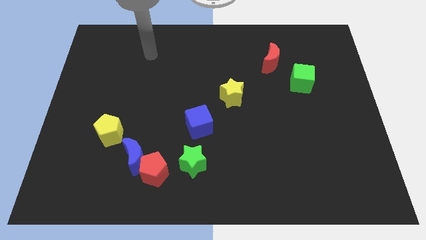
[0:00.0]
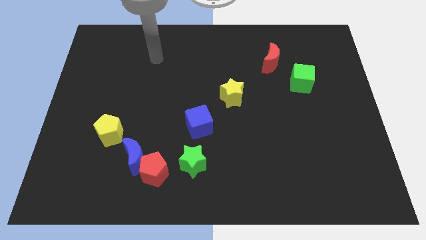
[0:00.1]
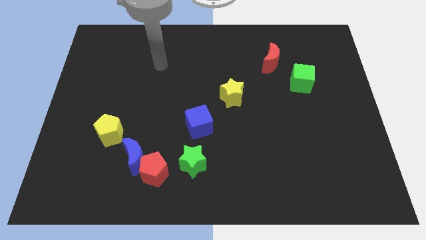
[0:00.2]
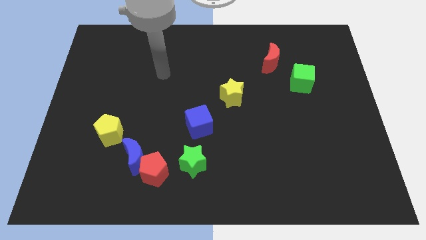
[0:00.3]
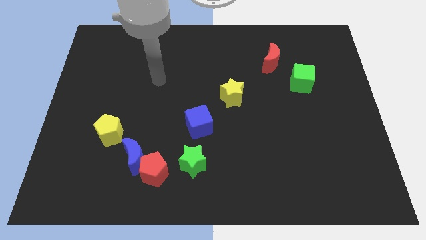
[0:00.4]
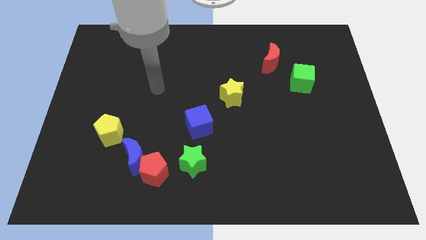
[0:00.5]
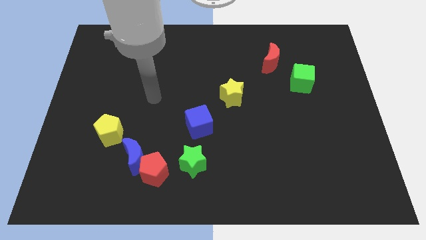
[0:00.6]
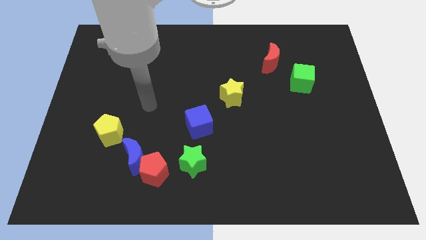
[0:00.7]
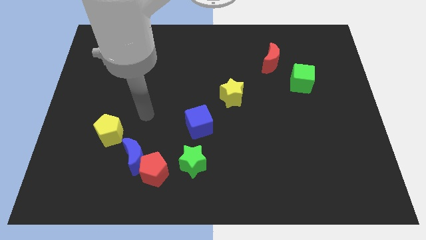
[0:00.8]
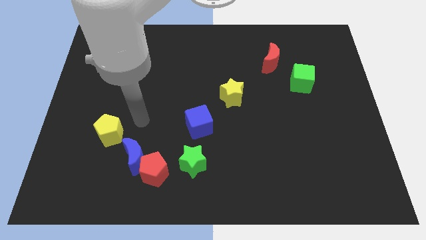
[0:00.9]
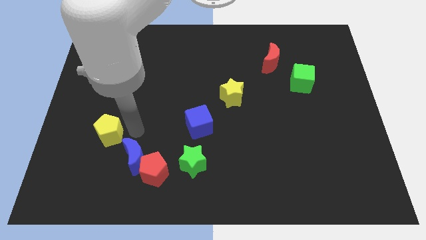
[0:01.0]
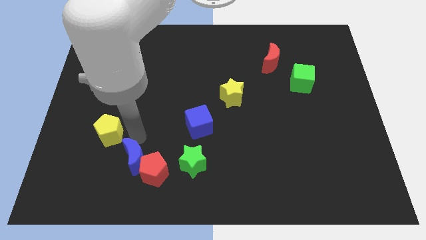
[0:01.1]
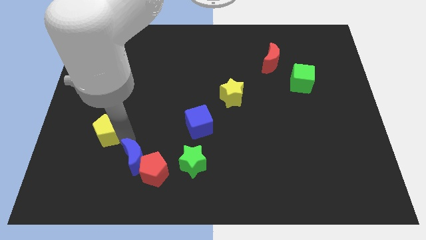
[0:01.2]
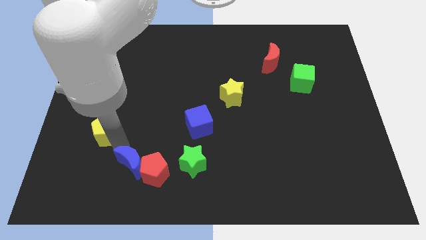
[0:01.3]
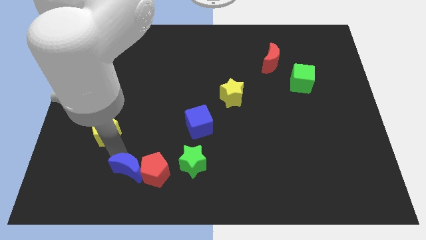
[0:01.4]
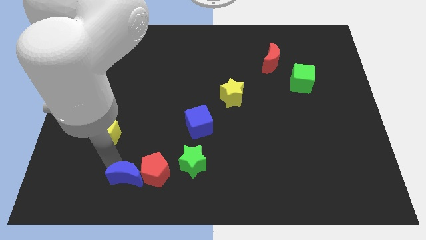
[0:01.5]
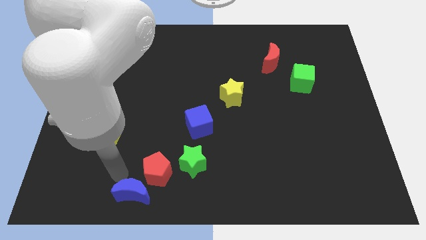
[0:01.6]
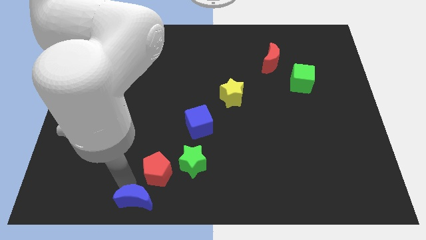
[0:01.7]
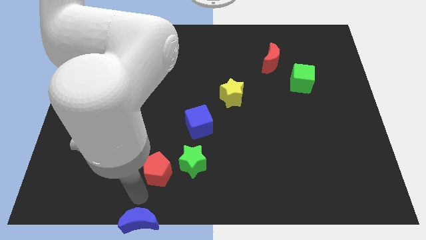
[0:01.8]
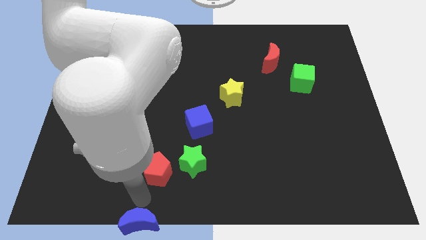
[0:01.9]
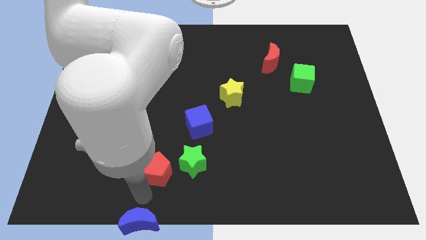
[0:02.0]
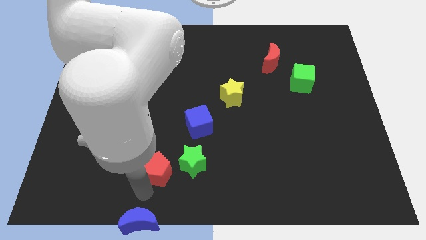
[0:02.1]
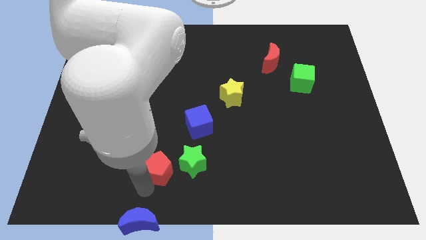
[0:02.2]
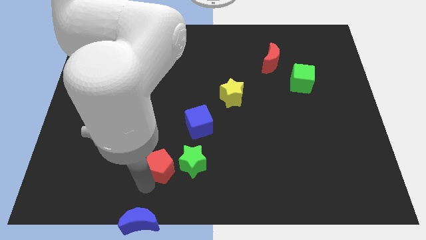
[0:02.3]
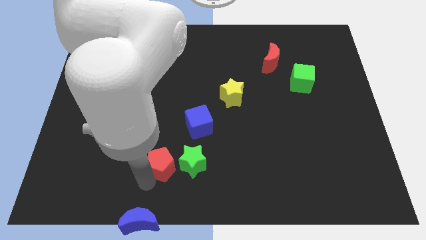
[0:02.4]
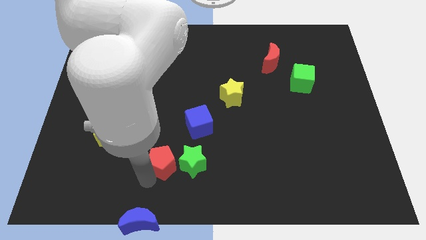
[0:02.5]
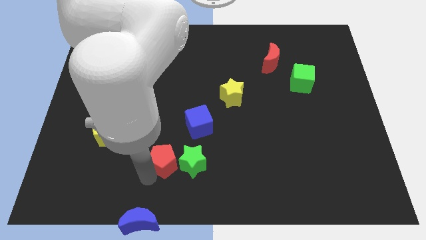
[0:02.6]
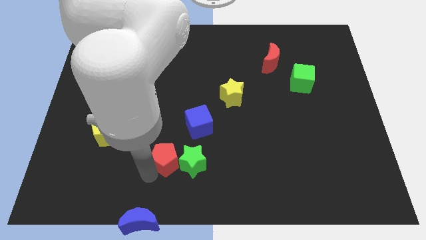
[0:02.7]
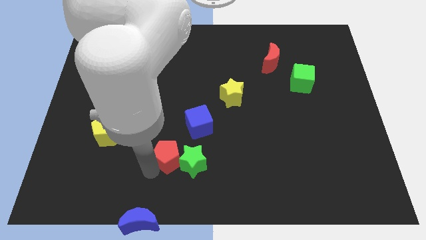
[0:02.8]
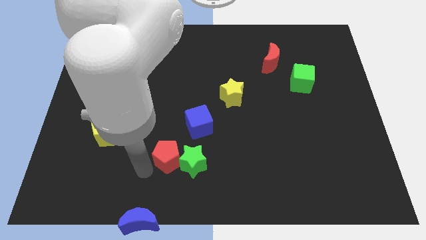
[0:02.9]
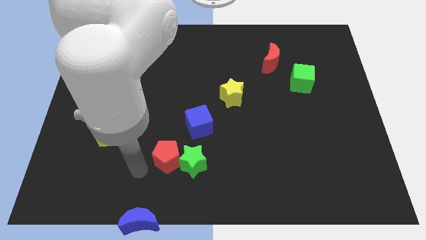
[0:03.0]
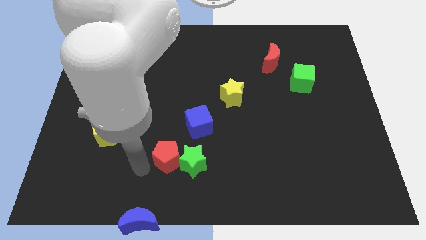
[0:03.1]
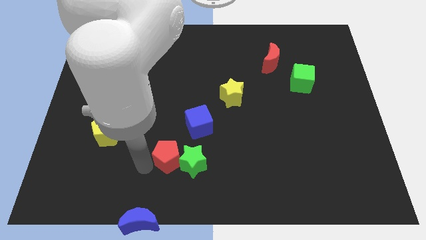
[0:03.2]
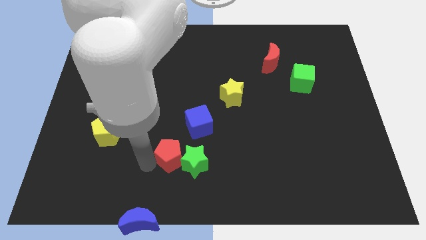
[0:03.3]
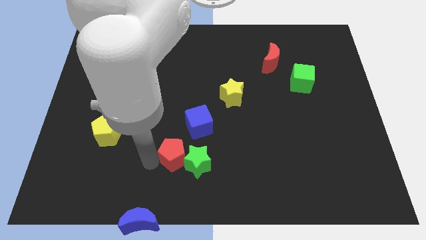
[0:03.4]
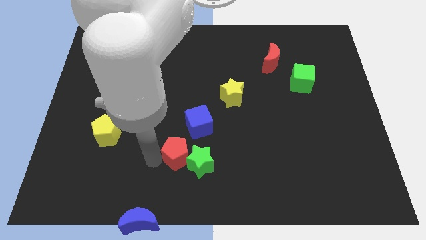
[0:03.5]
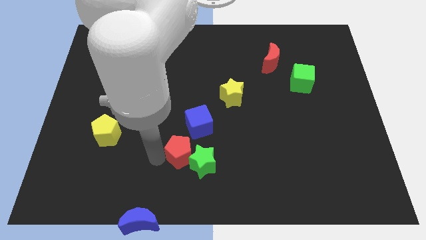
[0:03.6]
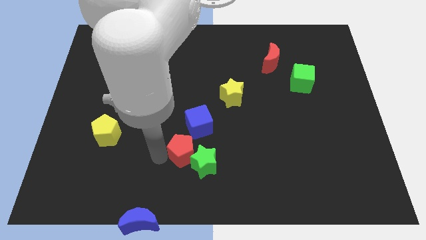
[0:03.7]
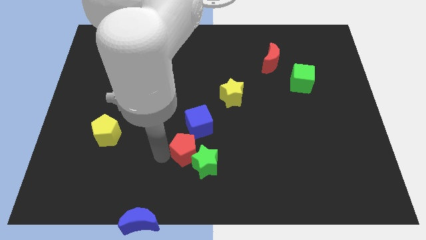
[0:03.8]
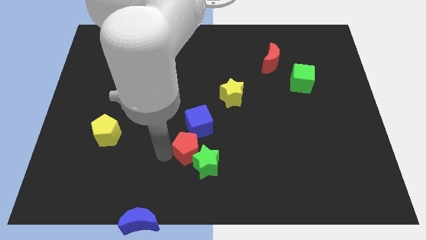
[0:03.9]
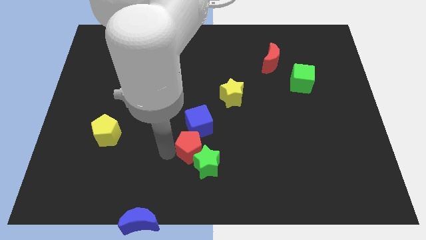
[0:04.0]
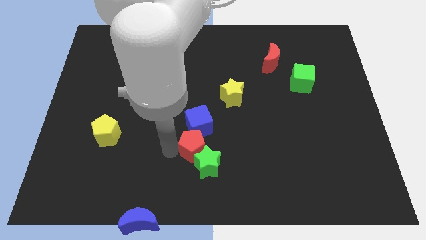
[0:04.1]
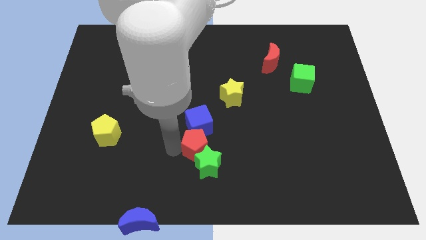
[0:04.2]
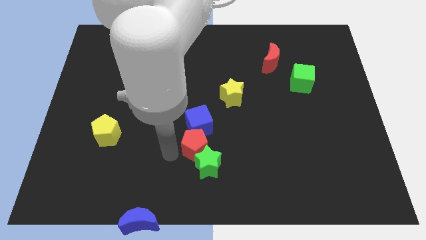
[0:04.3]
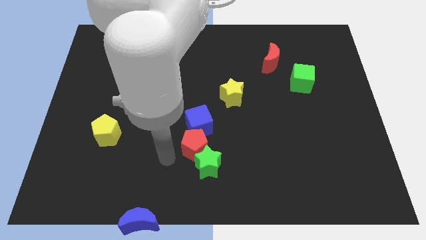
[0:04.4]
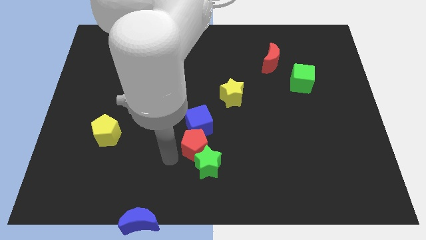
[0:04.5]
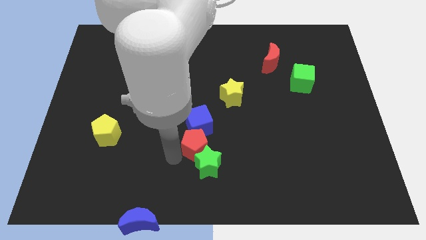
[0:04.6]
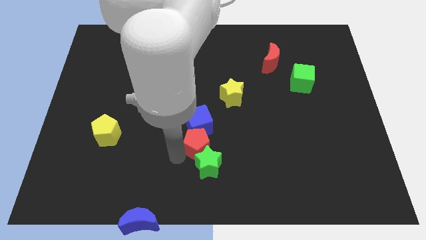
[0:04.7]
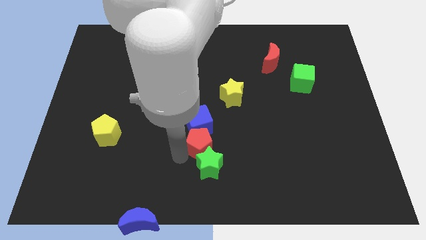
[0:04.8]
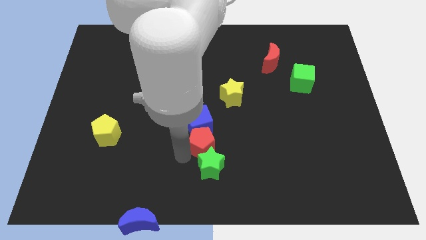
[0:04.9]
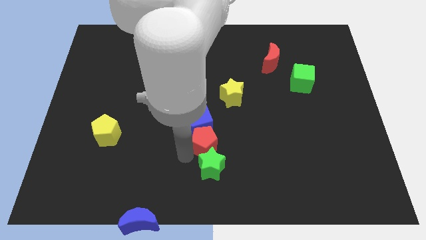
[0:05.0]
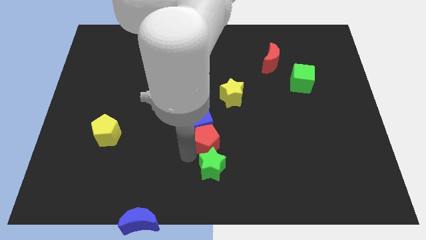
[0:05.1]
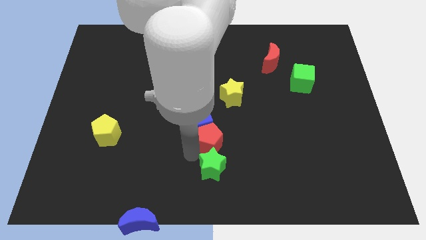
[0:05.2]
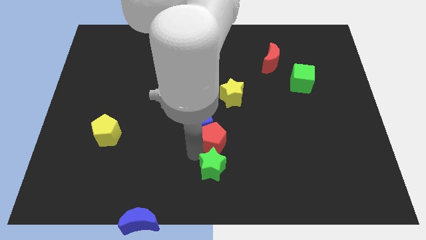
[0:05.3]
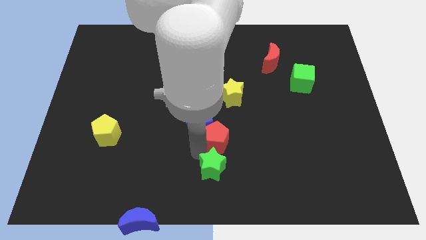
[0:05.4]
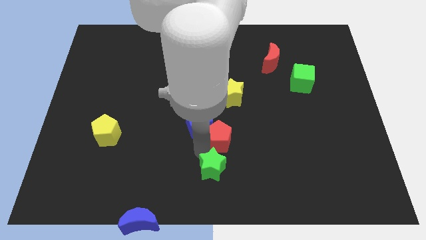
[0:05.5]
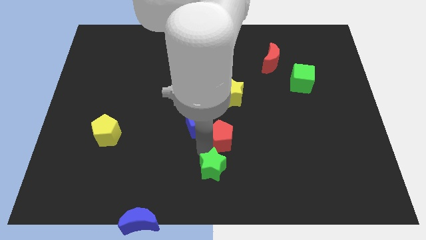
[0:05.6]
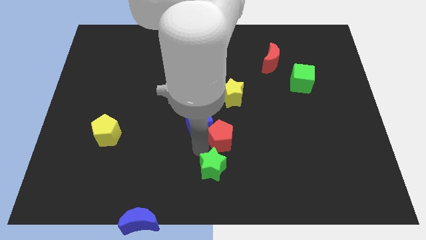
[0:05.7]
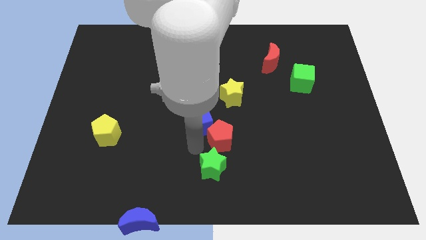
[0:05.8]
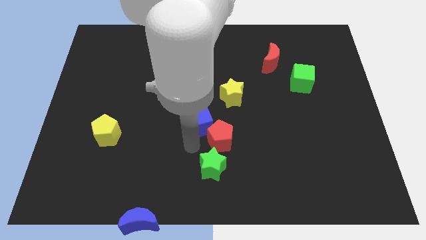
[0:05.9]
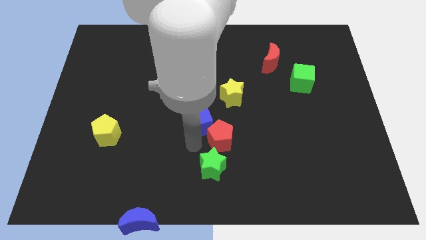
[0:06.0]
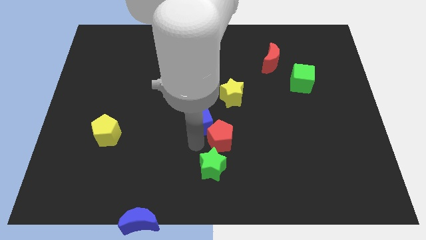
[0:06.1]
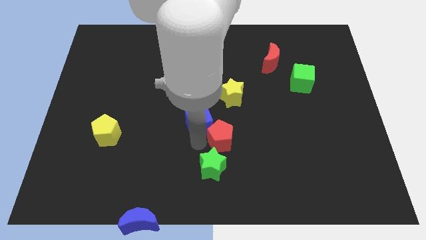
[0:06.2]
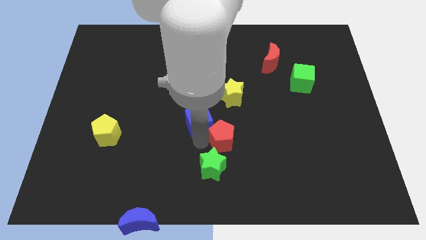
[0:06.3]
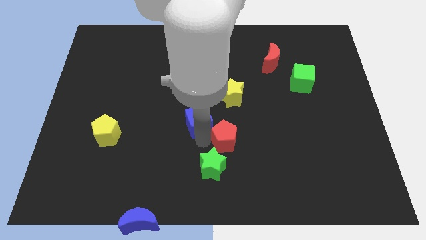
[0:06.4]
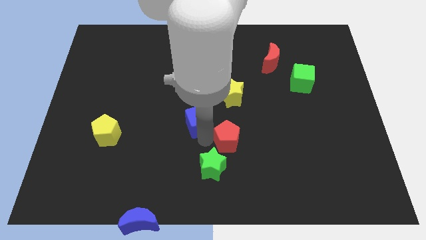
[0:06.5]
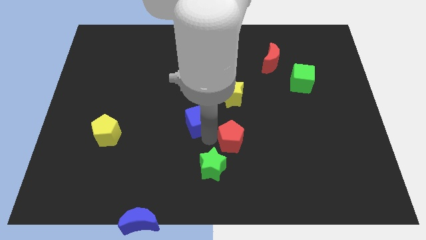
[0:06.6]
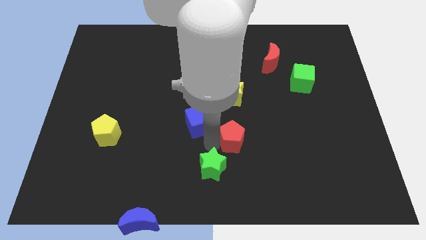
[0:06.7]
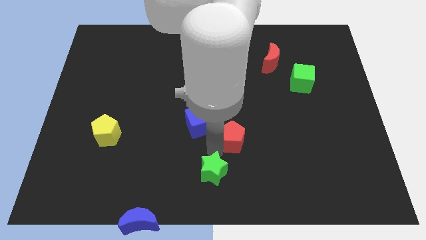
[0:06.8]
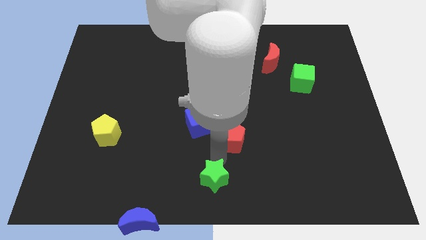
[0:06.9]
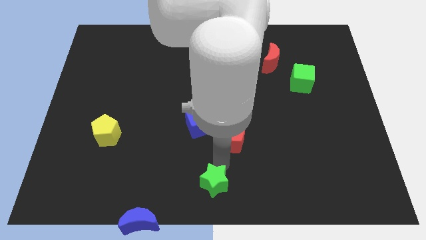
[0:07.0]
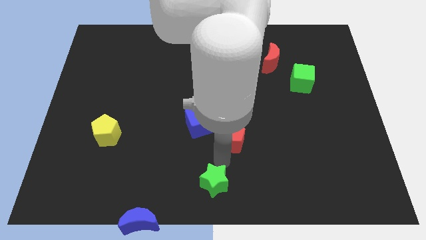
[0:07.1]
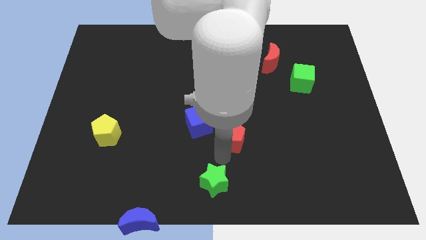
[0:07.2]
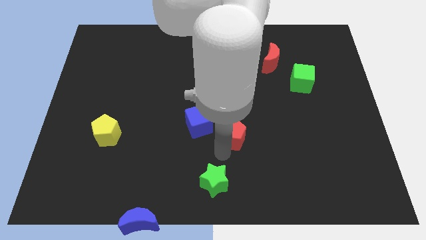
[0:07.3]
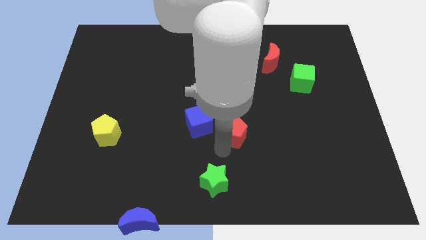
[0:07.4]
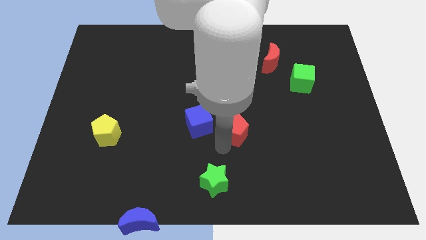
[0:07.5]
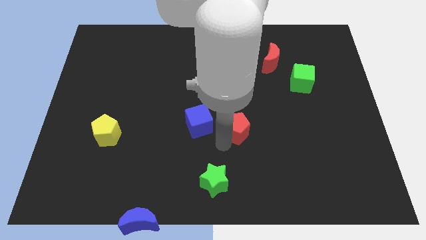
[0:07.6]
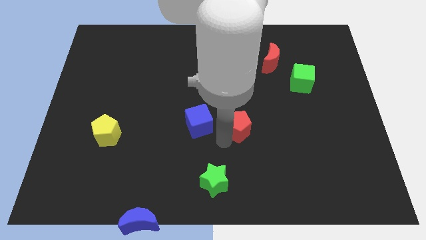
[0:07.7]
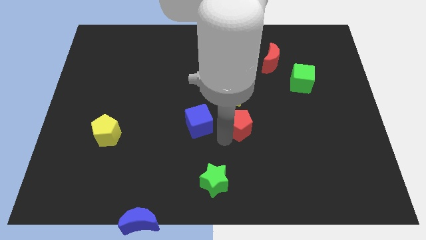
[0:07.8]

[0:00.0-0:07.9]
move the red pentagon upwards and to the right

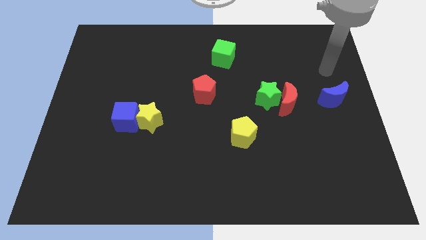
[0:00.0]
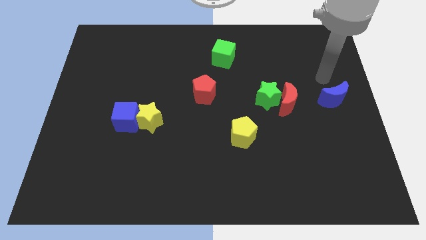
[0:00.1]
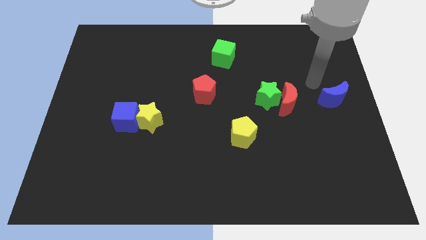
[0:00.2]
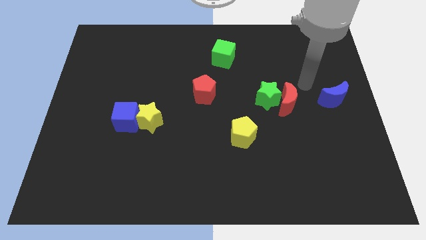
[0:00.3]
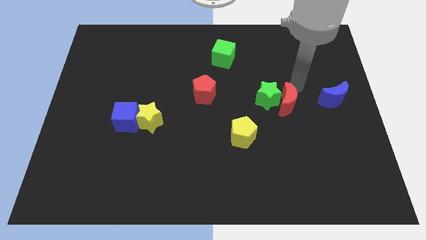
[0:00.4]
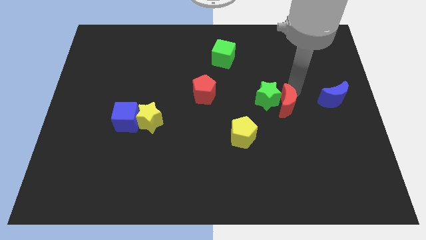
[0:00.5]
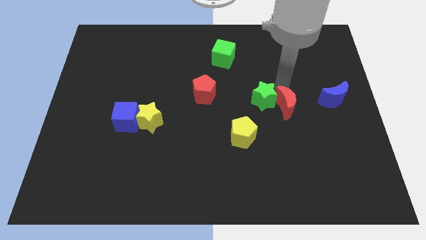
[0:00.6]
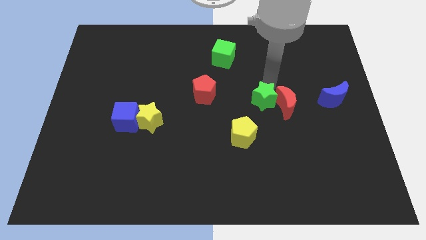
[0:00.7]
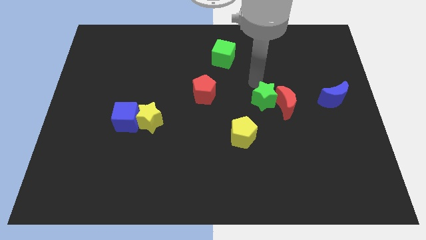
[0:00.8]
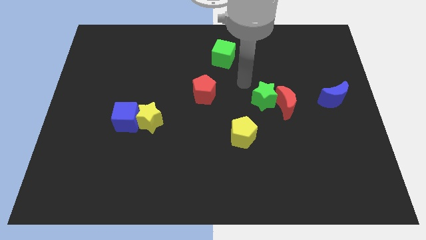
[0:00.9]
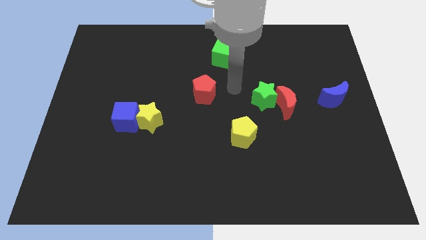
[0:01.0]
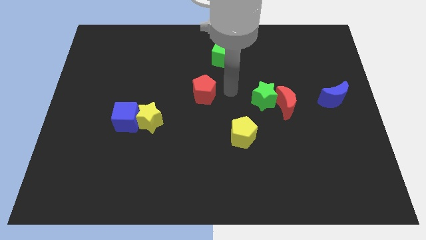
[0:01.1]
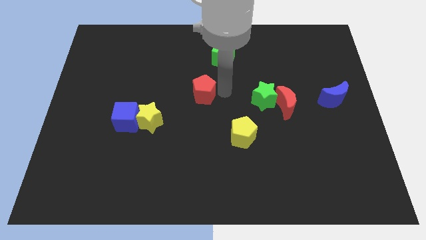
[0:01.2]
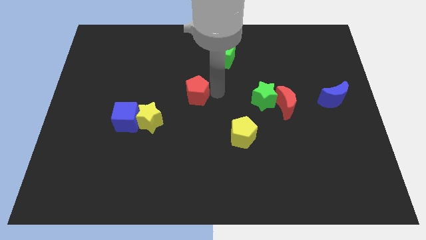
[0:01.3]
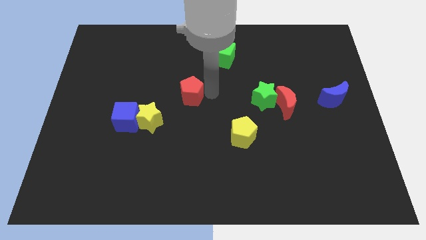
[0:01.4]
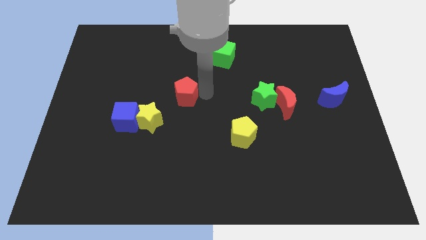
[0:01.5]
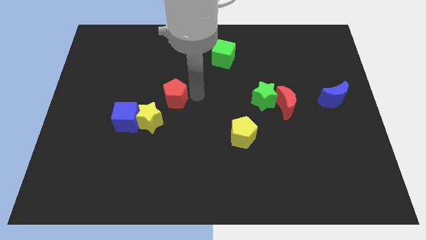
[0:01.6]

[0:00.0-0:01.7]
slightly push the red pentagon to the left
